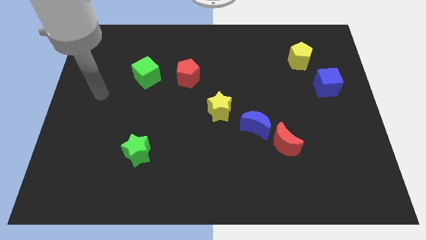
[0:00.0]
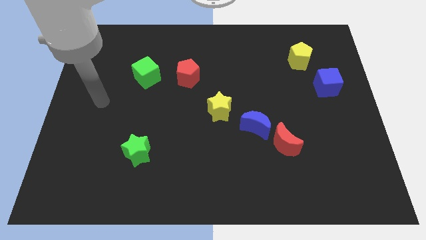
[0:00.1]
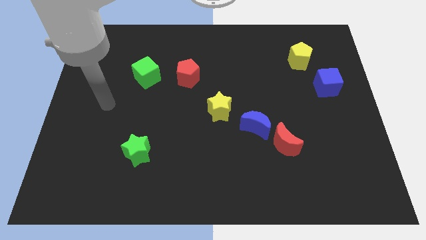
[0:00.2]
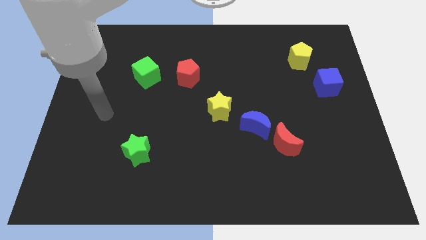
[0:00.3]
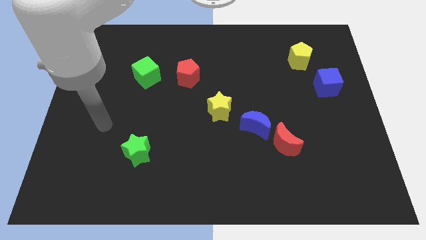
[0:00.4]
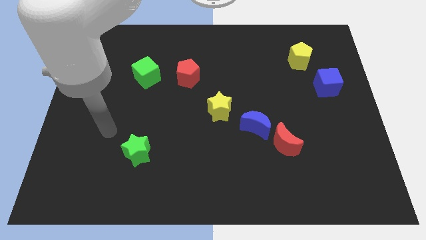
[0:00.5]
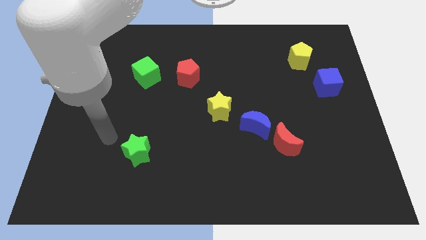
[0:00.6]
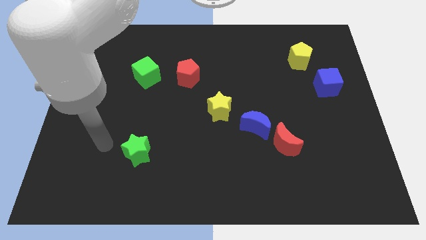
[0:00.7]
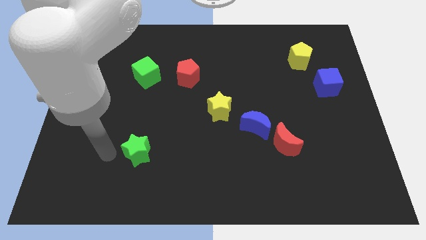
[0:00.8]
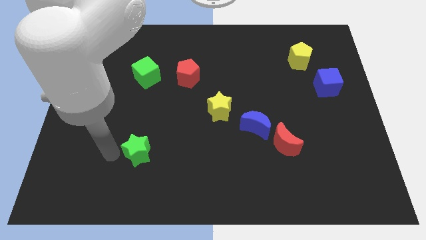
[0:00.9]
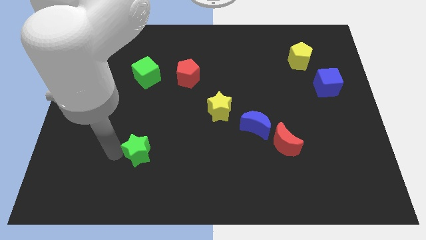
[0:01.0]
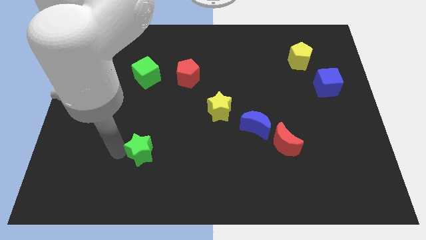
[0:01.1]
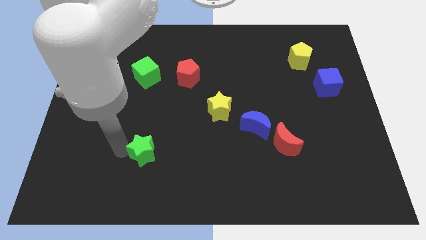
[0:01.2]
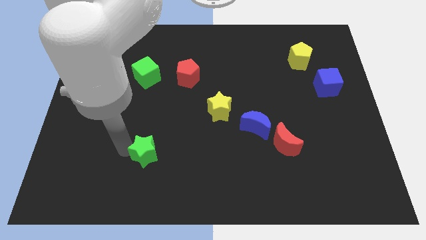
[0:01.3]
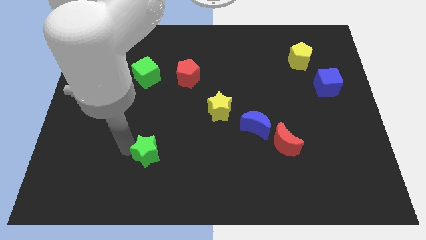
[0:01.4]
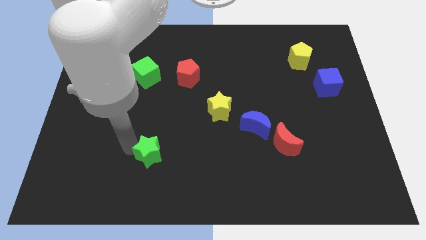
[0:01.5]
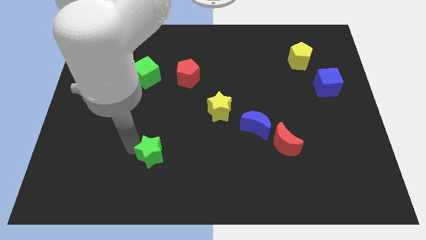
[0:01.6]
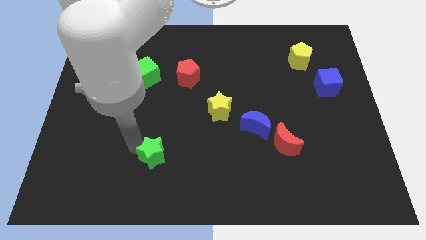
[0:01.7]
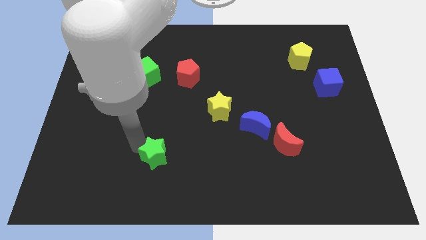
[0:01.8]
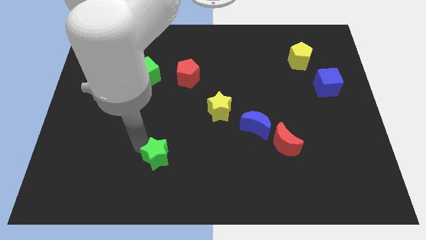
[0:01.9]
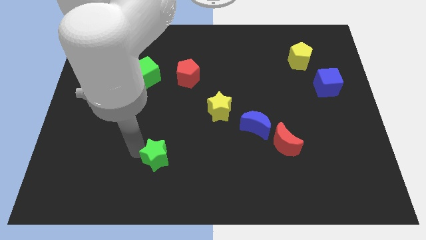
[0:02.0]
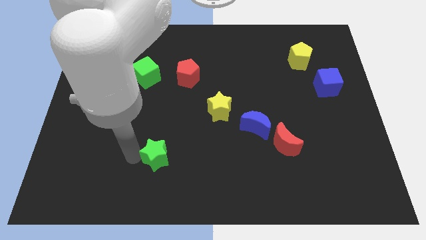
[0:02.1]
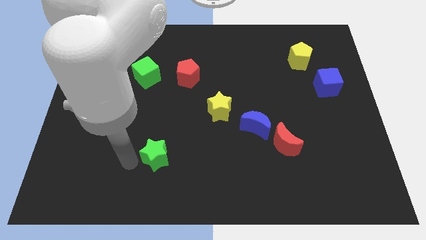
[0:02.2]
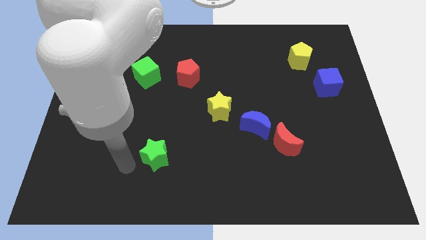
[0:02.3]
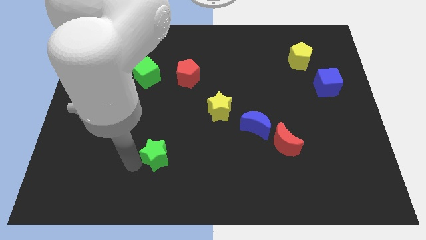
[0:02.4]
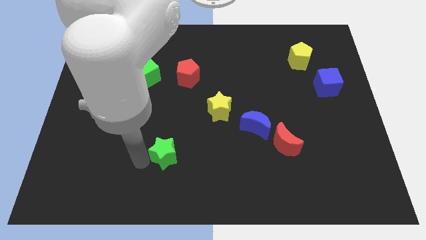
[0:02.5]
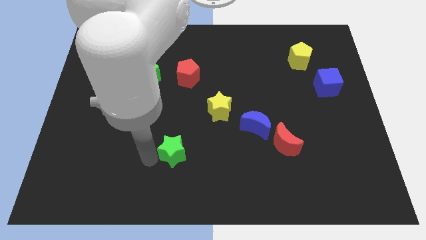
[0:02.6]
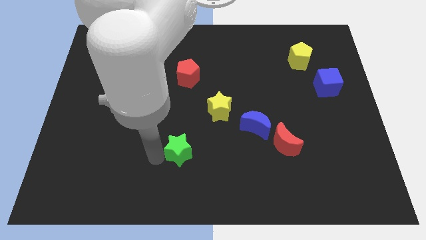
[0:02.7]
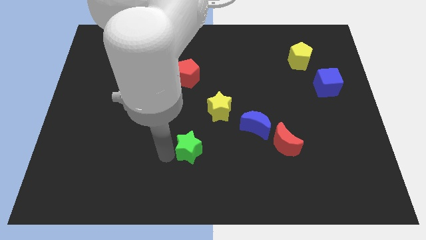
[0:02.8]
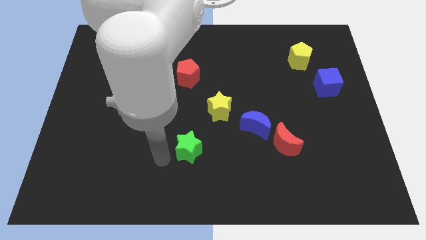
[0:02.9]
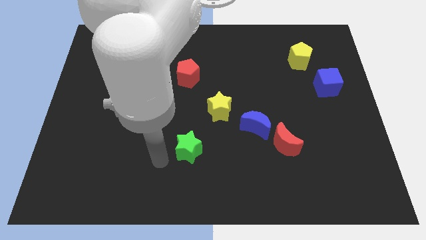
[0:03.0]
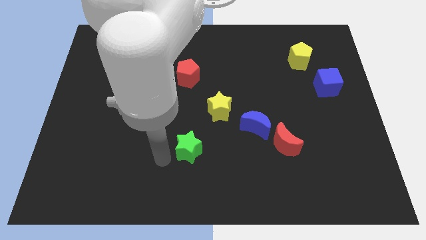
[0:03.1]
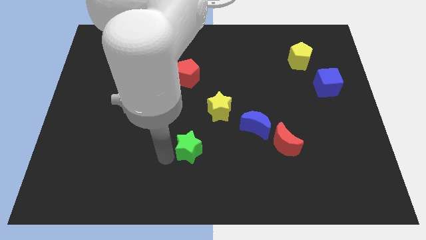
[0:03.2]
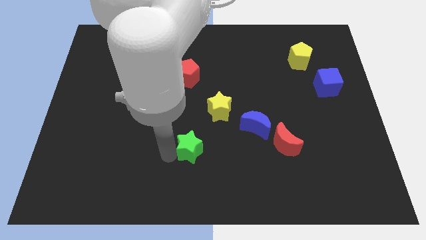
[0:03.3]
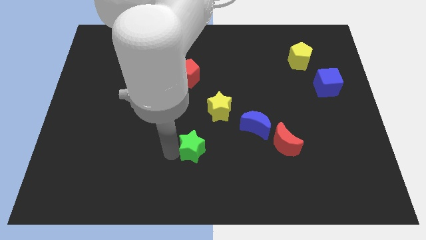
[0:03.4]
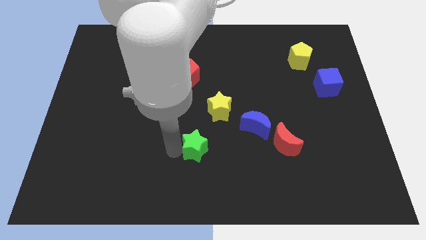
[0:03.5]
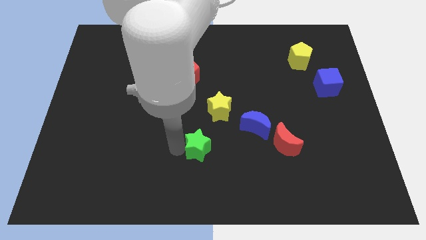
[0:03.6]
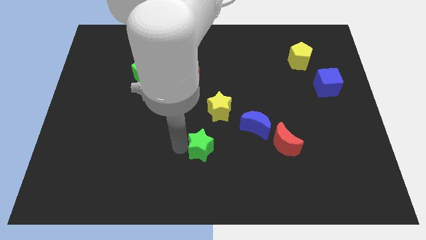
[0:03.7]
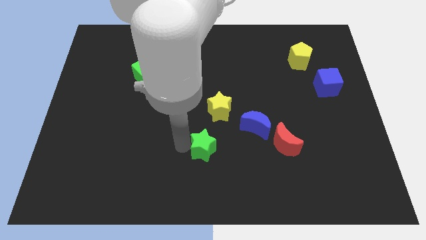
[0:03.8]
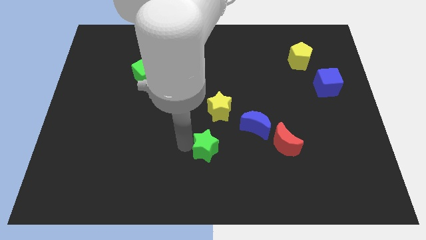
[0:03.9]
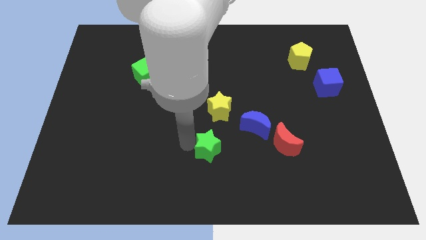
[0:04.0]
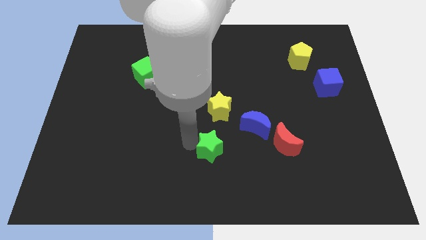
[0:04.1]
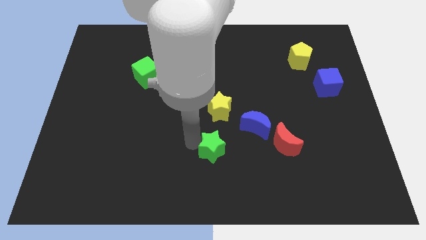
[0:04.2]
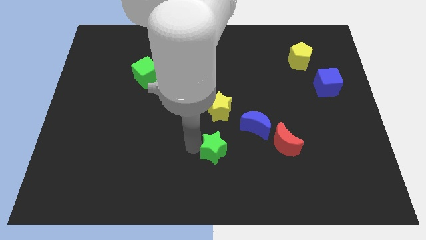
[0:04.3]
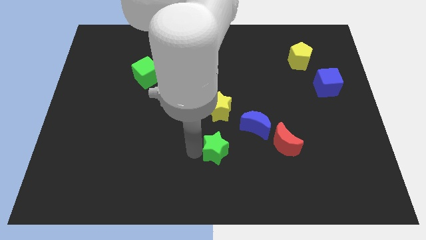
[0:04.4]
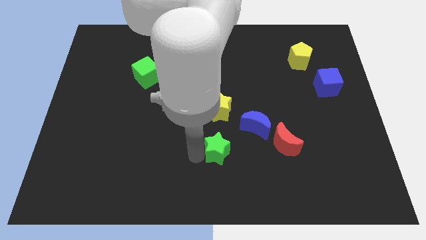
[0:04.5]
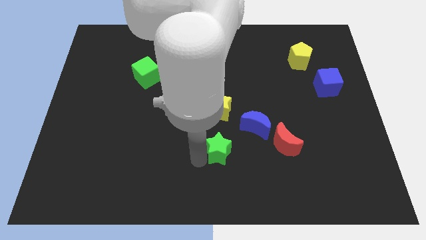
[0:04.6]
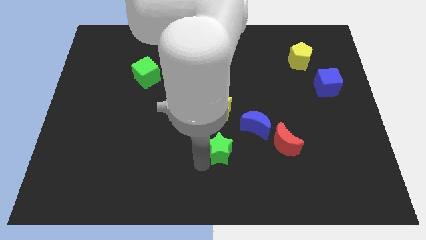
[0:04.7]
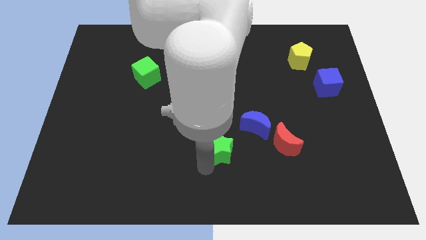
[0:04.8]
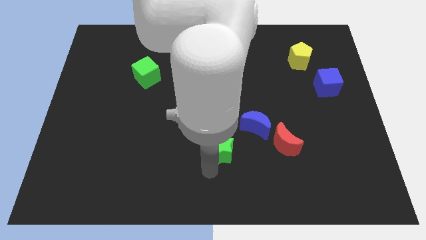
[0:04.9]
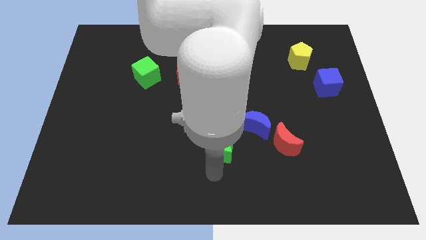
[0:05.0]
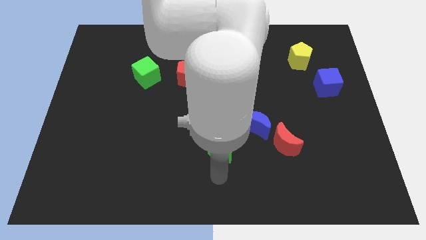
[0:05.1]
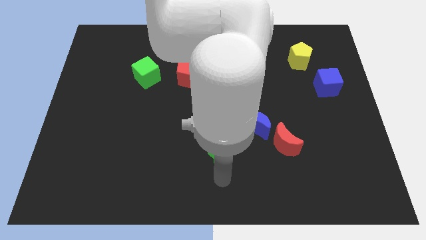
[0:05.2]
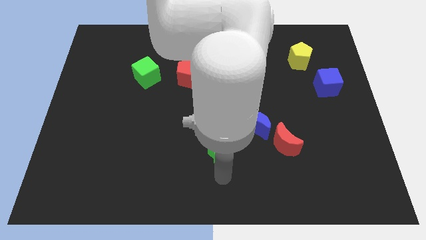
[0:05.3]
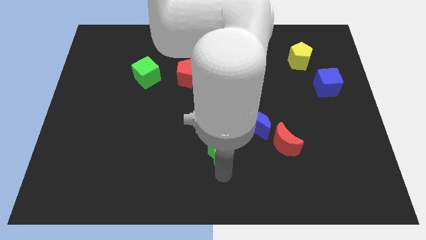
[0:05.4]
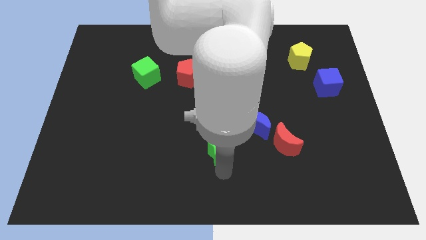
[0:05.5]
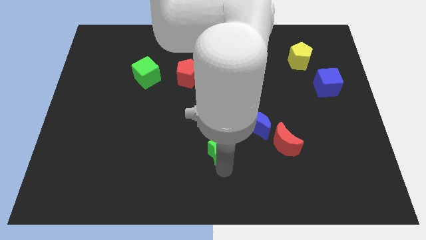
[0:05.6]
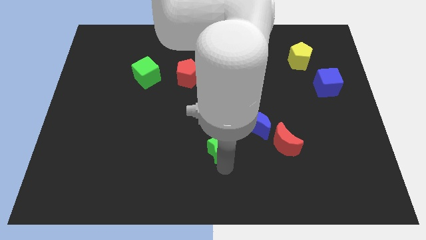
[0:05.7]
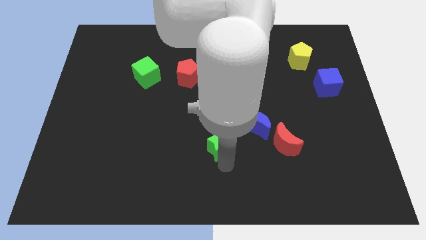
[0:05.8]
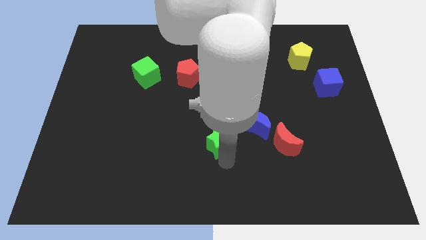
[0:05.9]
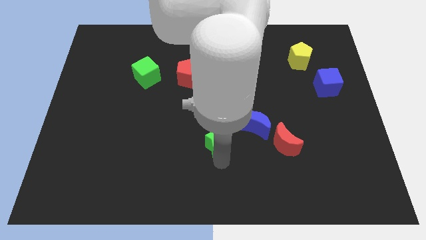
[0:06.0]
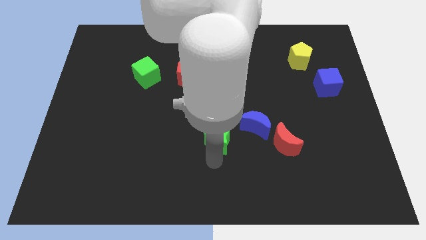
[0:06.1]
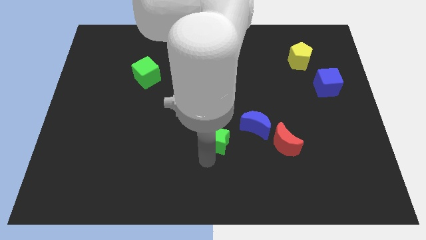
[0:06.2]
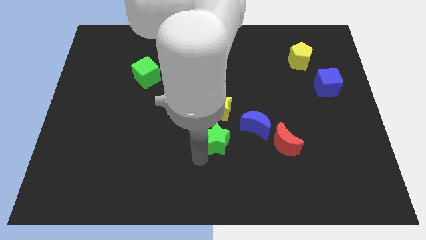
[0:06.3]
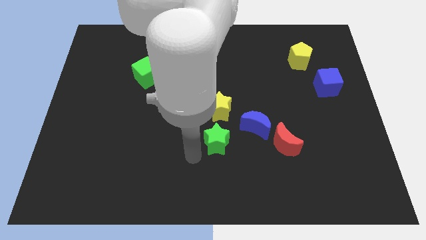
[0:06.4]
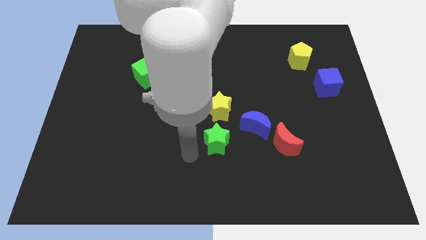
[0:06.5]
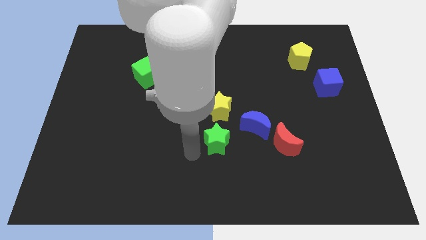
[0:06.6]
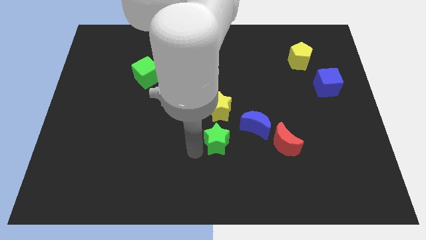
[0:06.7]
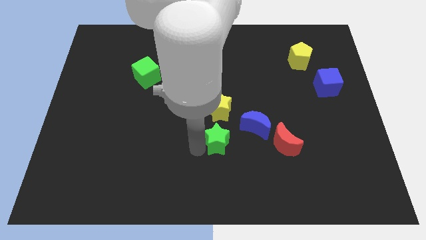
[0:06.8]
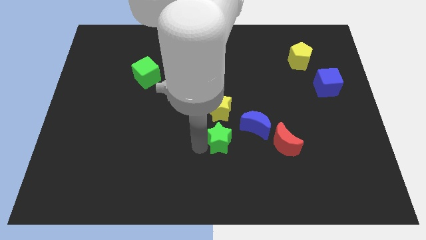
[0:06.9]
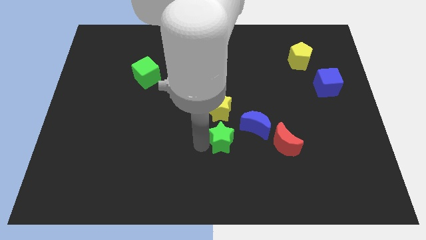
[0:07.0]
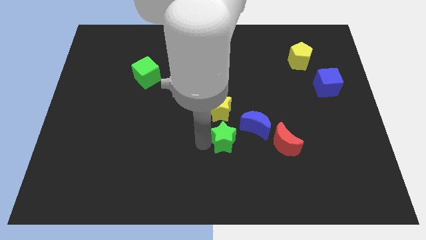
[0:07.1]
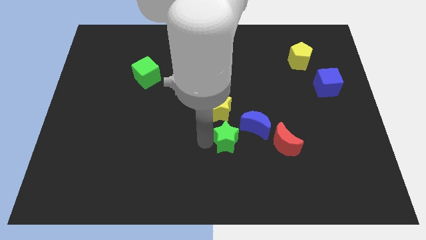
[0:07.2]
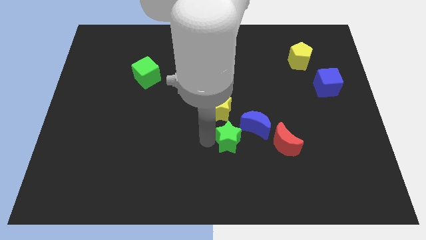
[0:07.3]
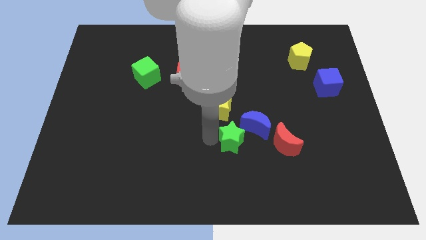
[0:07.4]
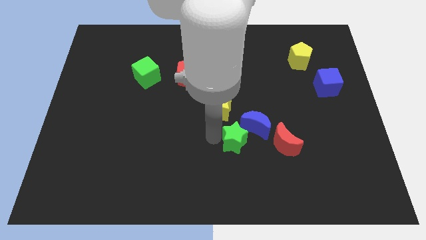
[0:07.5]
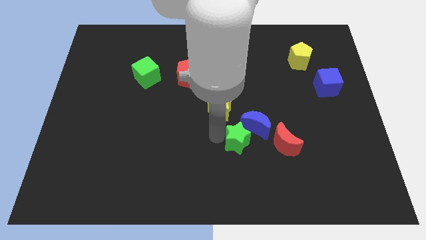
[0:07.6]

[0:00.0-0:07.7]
push the green star to the blue moon
